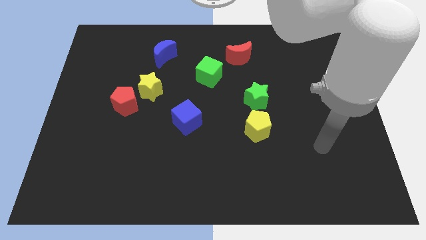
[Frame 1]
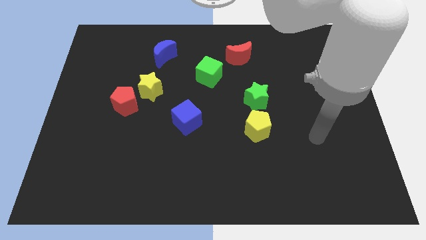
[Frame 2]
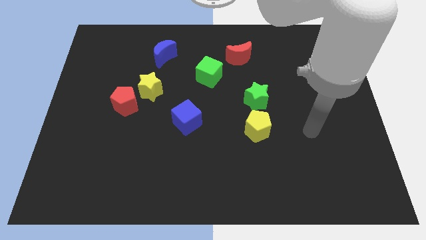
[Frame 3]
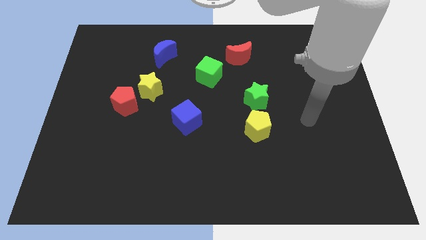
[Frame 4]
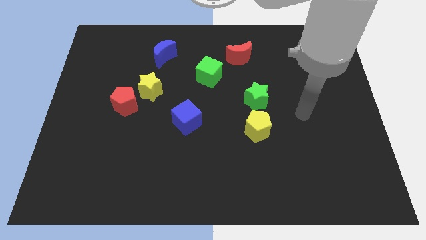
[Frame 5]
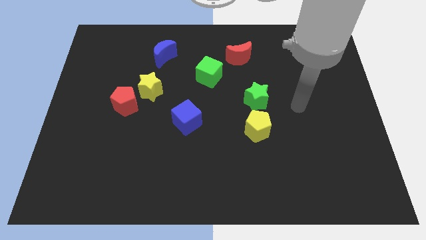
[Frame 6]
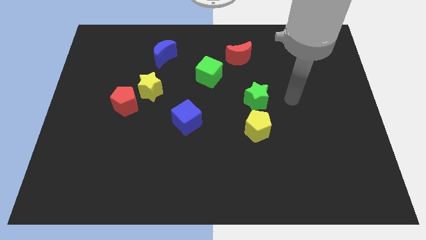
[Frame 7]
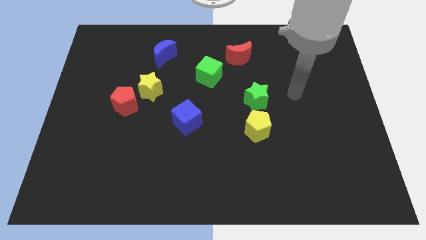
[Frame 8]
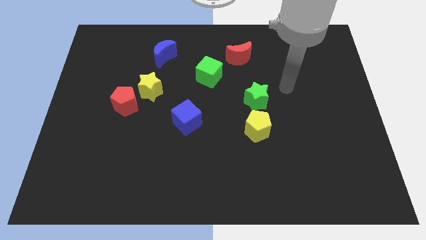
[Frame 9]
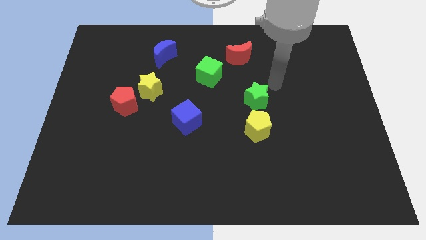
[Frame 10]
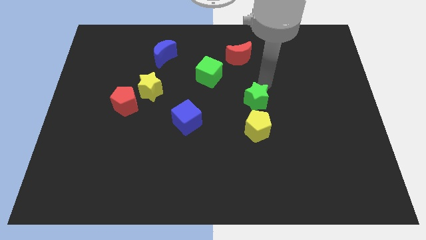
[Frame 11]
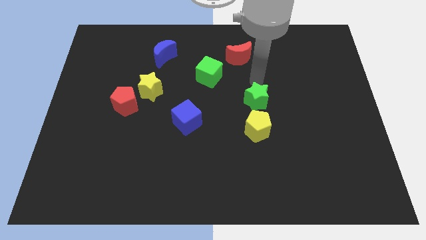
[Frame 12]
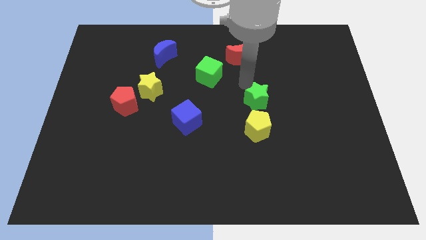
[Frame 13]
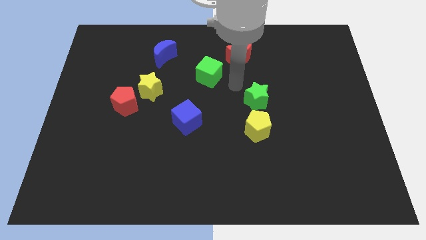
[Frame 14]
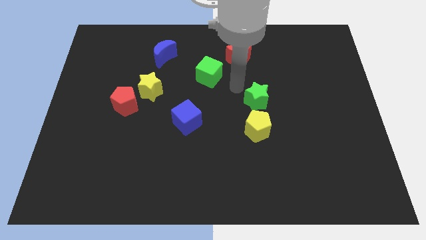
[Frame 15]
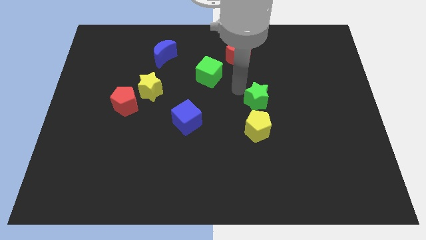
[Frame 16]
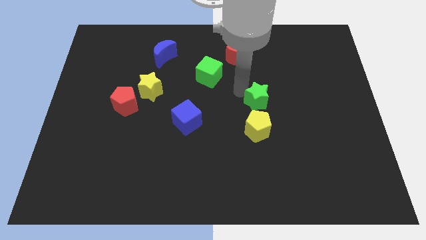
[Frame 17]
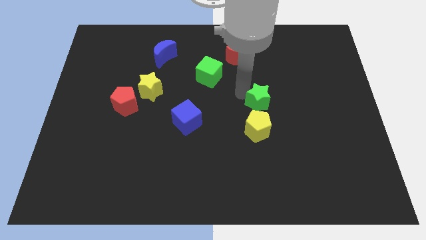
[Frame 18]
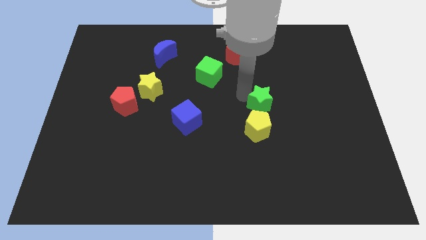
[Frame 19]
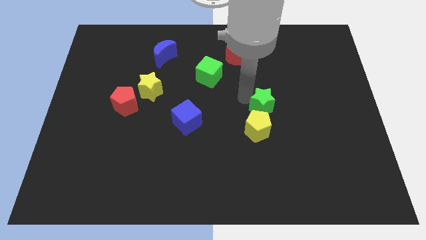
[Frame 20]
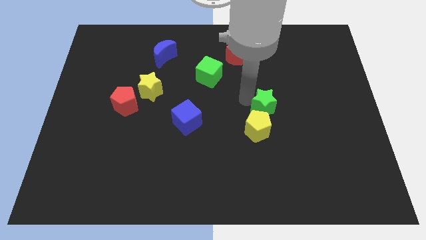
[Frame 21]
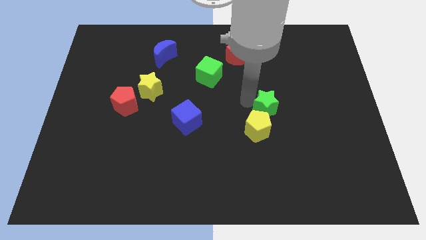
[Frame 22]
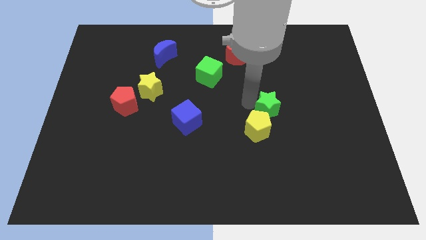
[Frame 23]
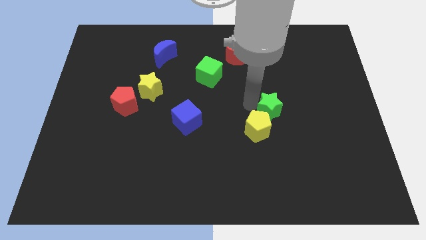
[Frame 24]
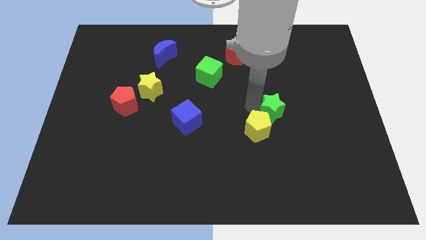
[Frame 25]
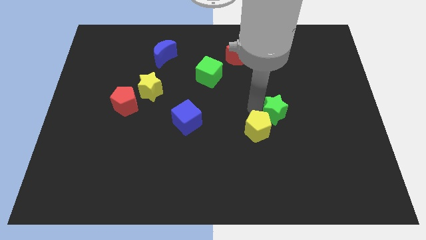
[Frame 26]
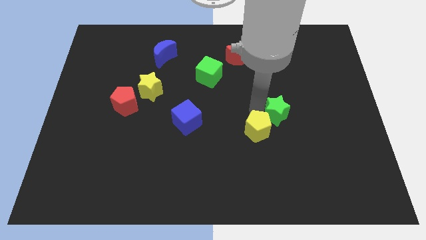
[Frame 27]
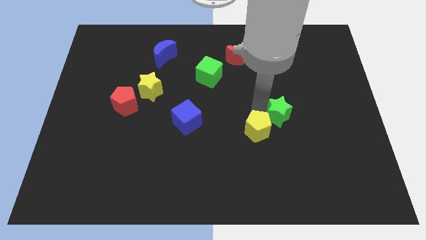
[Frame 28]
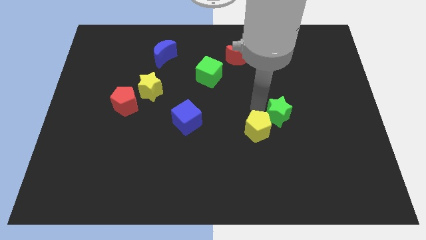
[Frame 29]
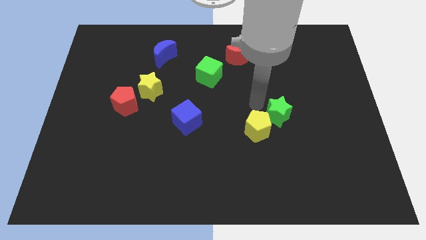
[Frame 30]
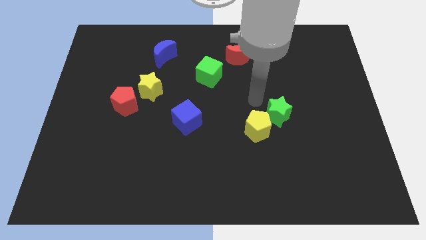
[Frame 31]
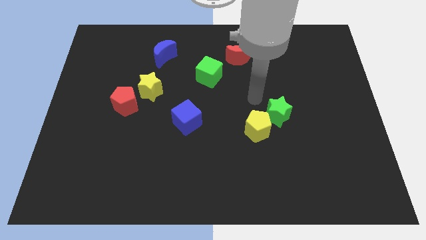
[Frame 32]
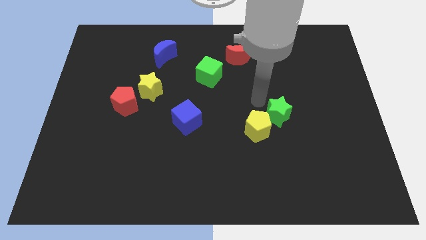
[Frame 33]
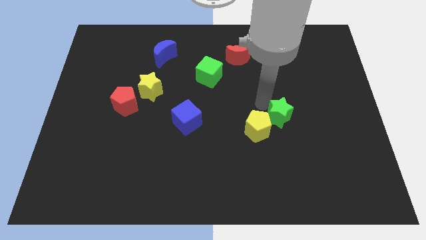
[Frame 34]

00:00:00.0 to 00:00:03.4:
slightly move the green star downwards and then to the right

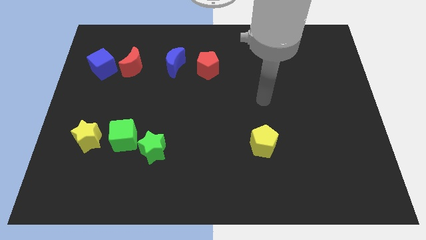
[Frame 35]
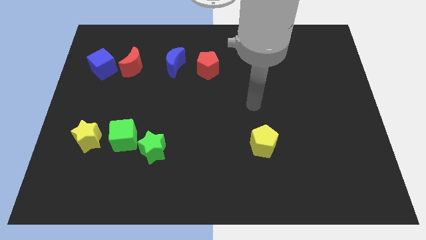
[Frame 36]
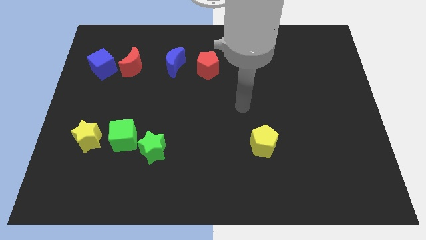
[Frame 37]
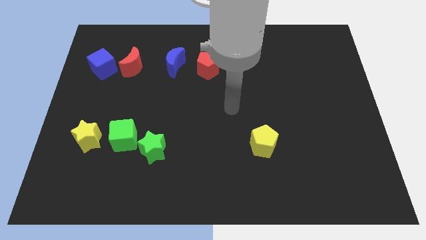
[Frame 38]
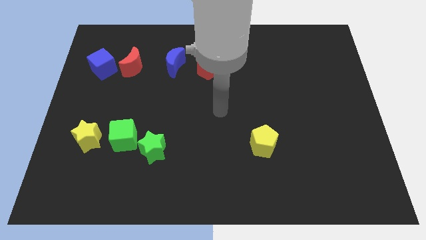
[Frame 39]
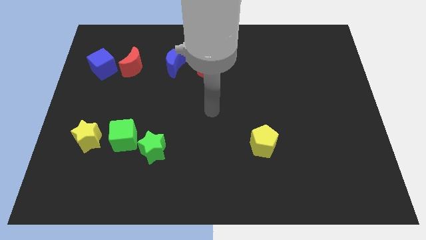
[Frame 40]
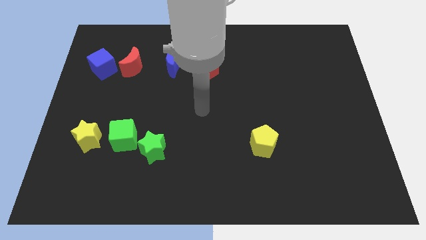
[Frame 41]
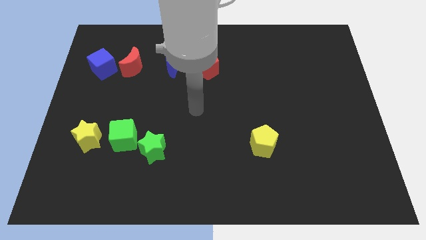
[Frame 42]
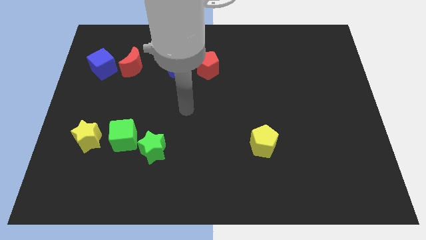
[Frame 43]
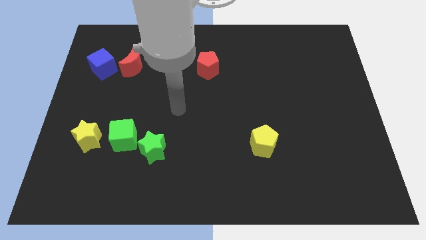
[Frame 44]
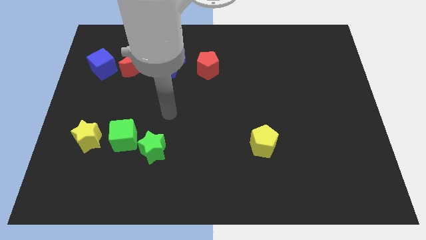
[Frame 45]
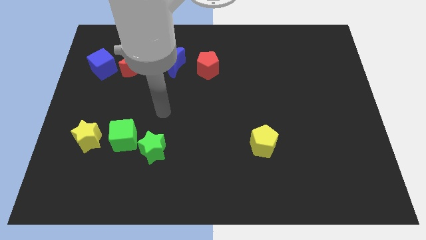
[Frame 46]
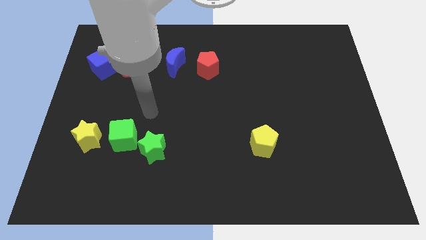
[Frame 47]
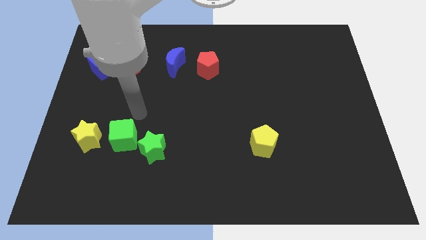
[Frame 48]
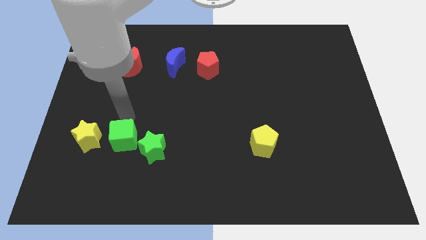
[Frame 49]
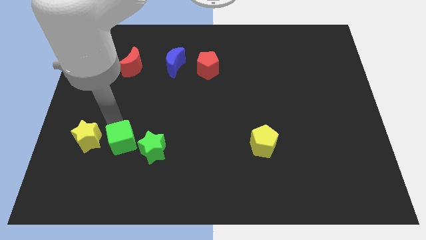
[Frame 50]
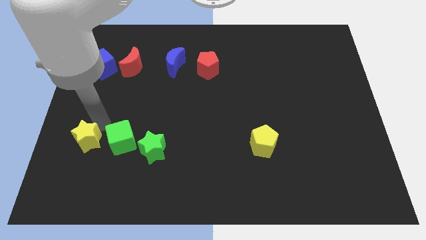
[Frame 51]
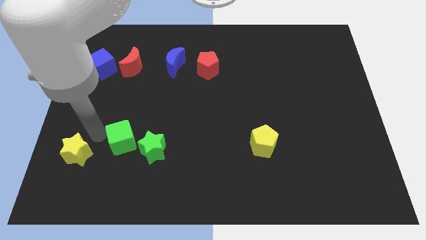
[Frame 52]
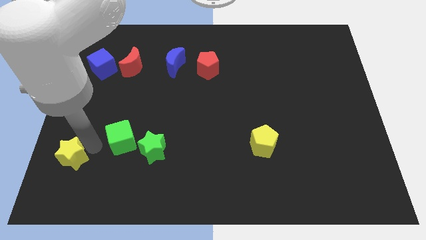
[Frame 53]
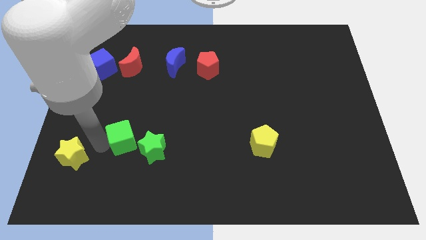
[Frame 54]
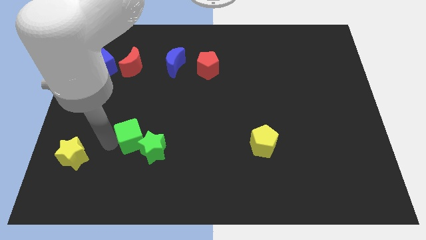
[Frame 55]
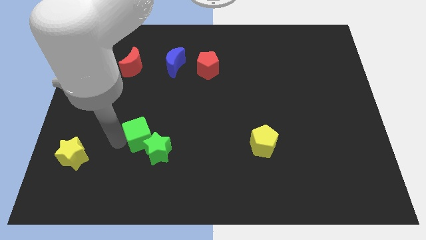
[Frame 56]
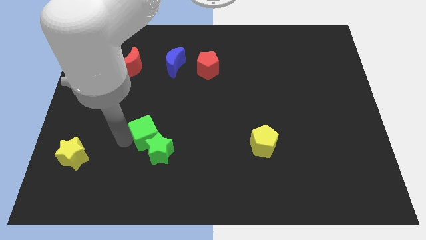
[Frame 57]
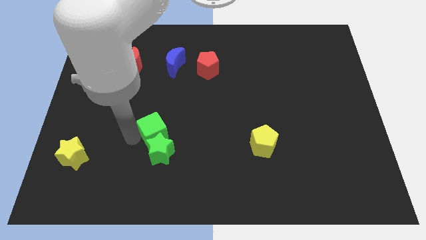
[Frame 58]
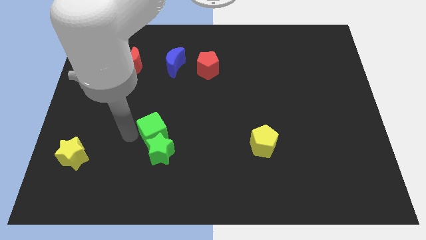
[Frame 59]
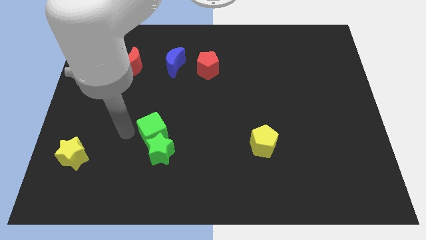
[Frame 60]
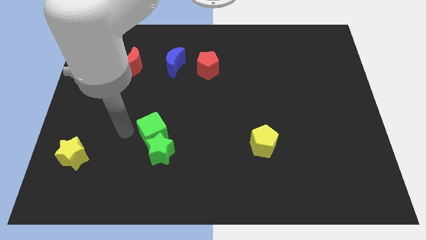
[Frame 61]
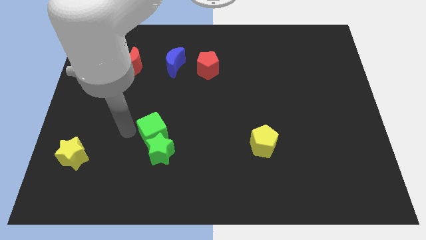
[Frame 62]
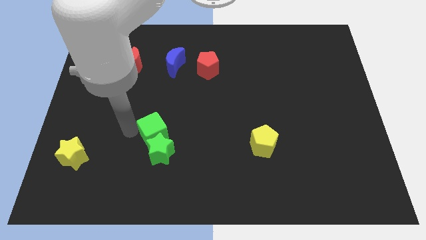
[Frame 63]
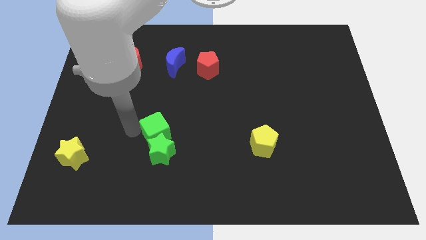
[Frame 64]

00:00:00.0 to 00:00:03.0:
slide the green cube slightly to the right

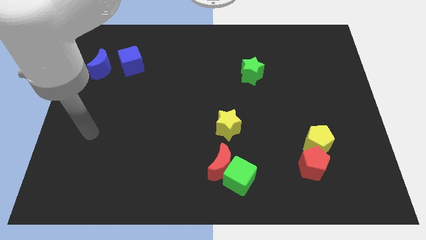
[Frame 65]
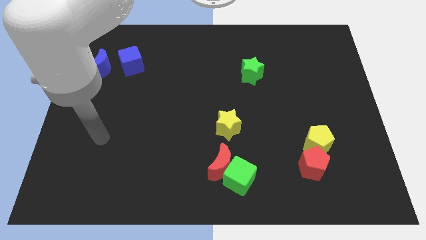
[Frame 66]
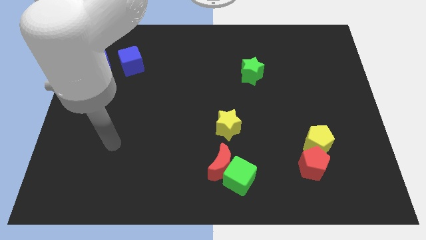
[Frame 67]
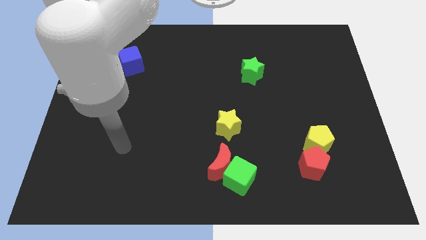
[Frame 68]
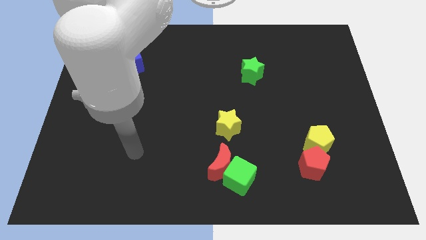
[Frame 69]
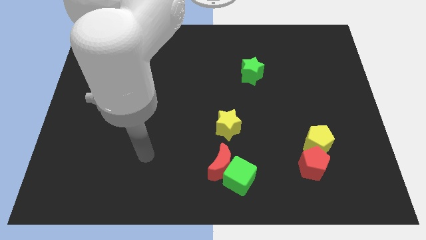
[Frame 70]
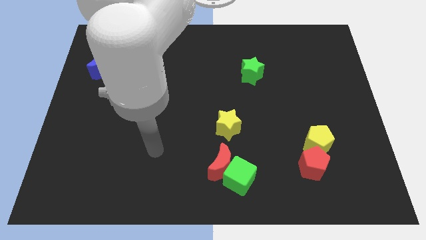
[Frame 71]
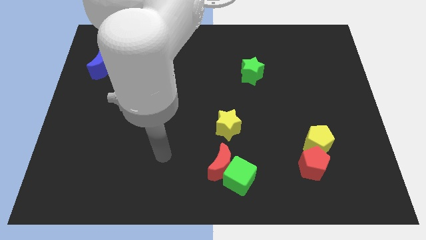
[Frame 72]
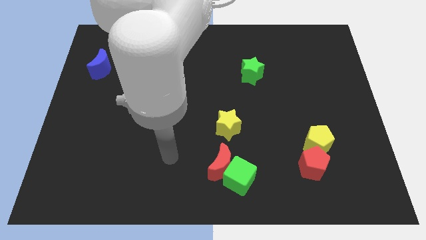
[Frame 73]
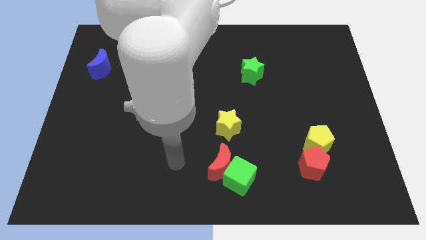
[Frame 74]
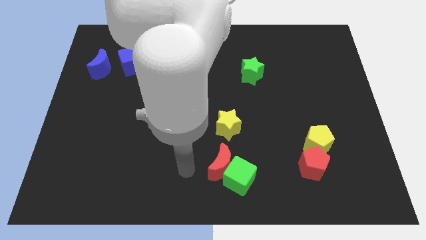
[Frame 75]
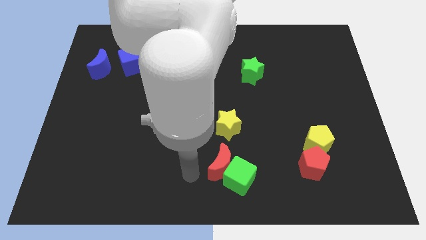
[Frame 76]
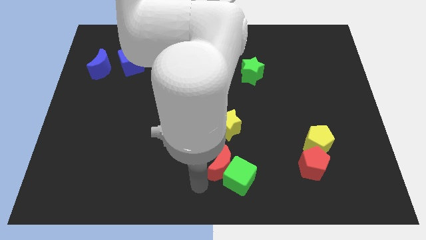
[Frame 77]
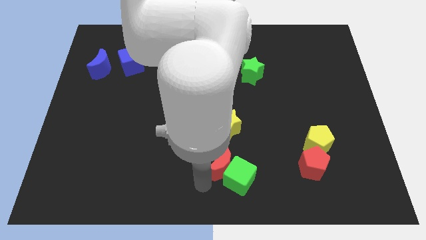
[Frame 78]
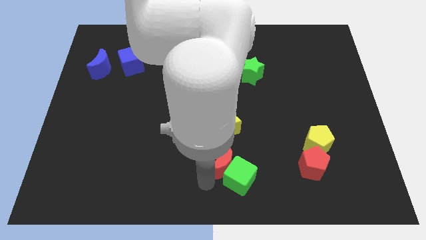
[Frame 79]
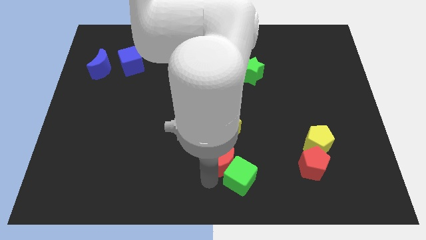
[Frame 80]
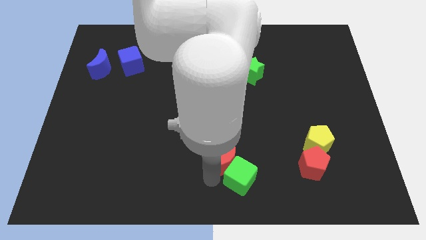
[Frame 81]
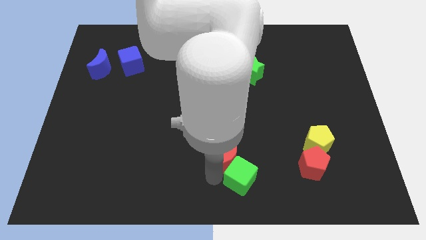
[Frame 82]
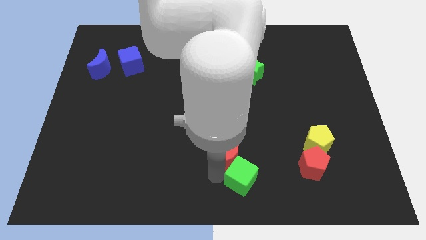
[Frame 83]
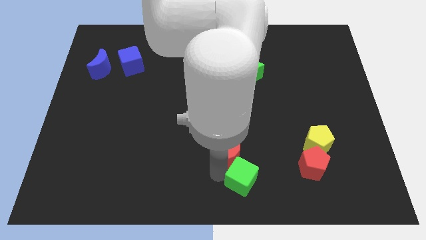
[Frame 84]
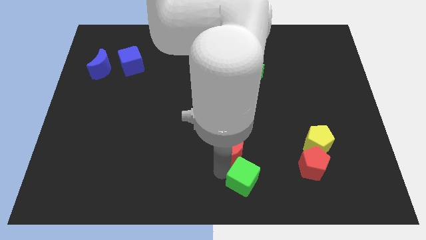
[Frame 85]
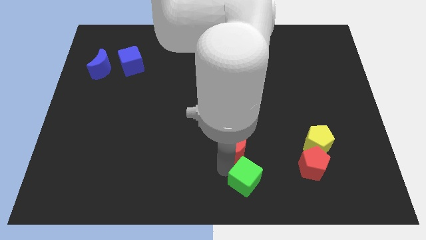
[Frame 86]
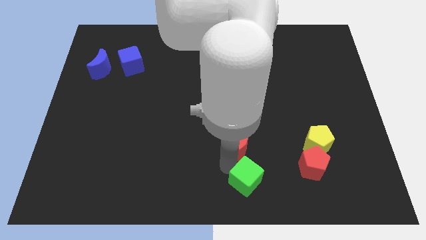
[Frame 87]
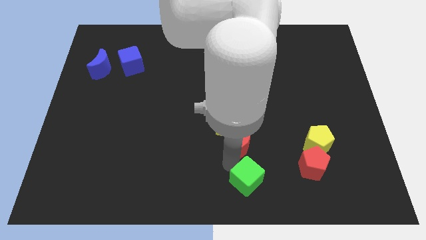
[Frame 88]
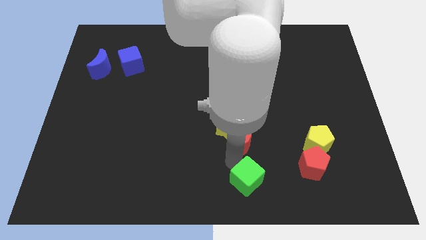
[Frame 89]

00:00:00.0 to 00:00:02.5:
slightly push the red moon upwards and then to the right
